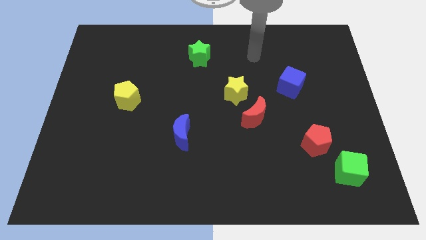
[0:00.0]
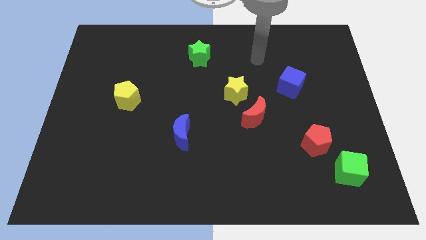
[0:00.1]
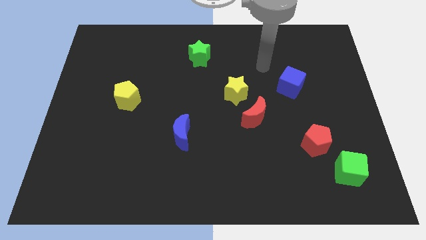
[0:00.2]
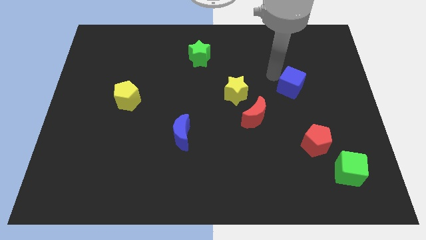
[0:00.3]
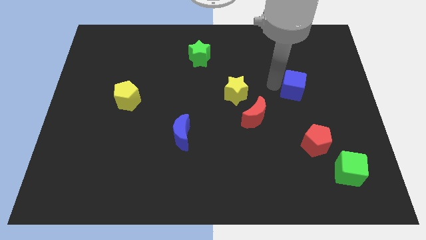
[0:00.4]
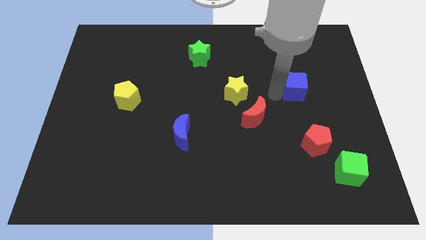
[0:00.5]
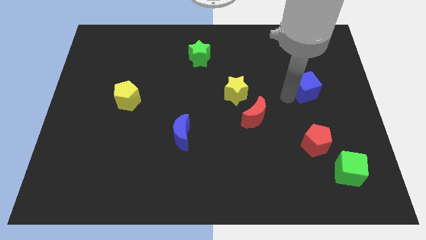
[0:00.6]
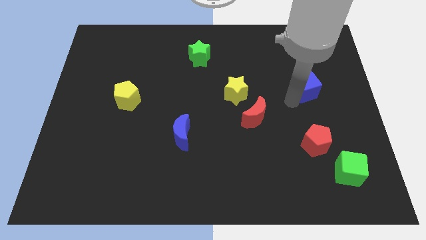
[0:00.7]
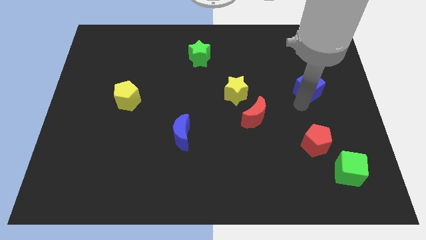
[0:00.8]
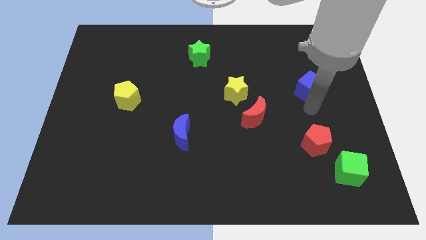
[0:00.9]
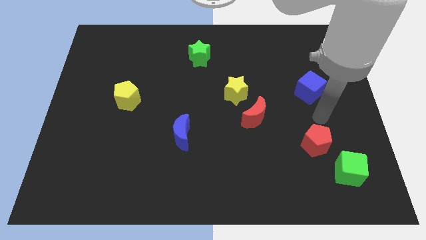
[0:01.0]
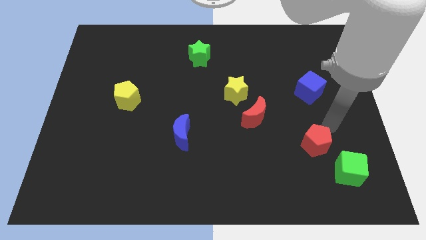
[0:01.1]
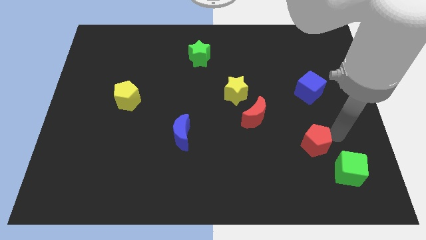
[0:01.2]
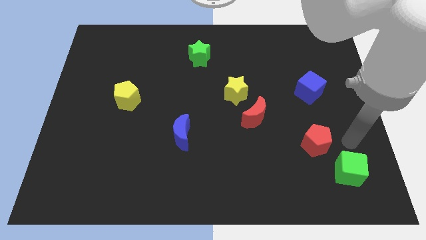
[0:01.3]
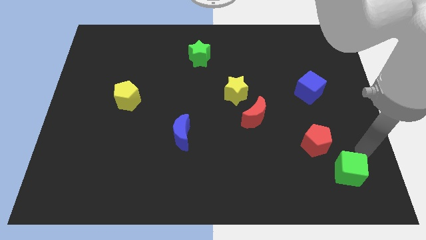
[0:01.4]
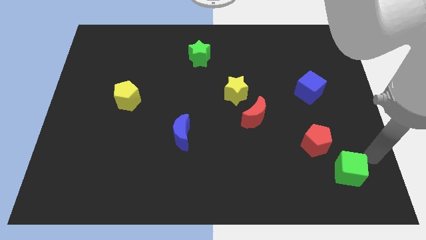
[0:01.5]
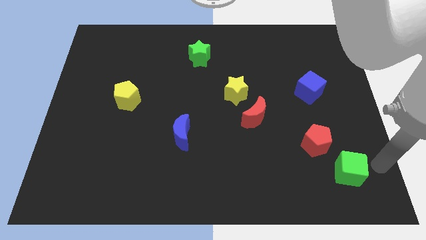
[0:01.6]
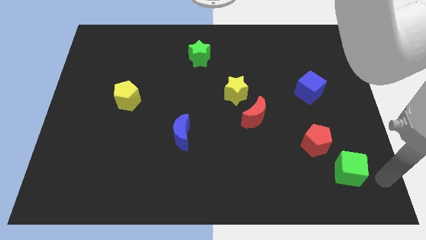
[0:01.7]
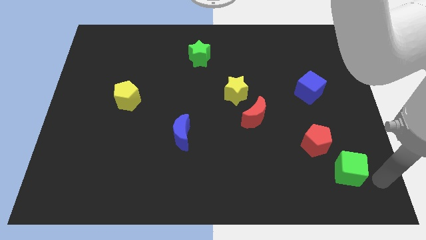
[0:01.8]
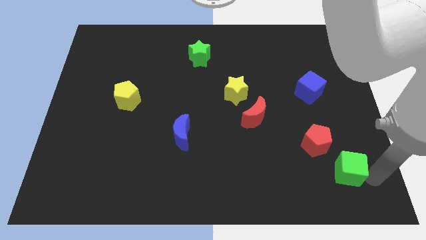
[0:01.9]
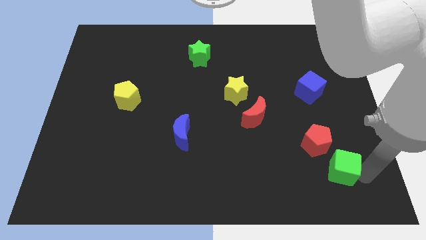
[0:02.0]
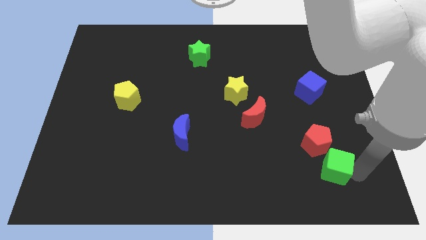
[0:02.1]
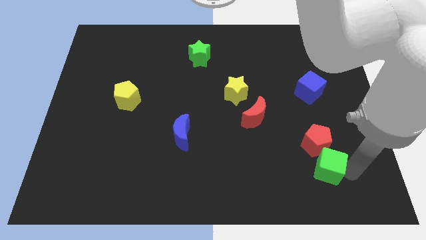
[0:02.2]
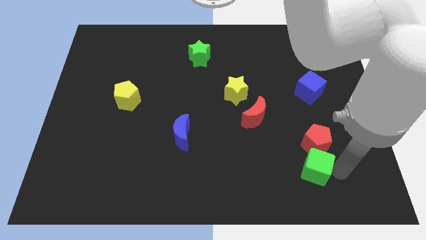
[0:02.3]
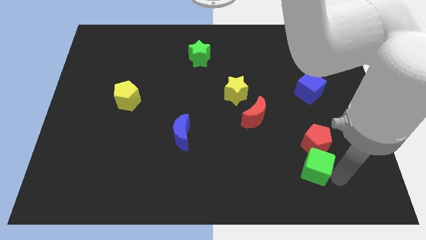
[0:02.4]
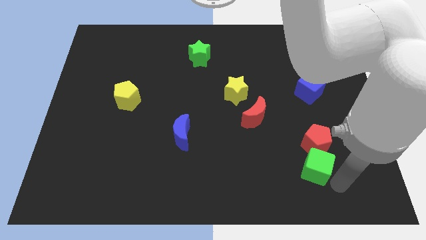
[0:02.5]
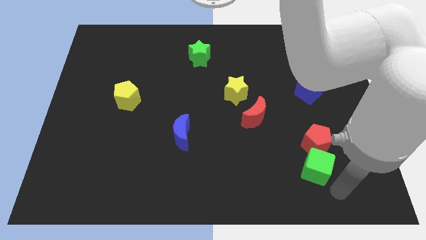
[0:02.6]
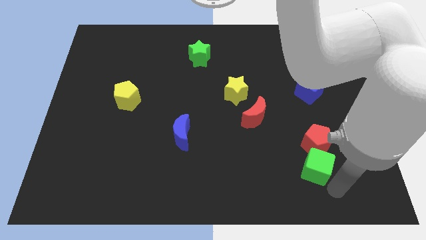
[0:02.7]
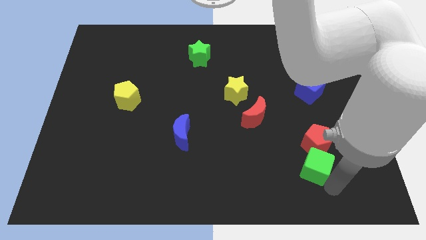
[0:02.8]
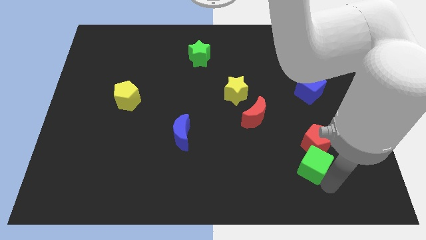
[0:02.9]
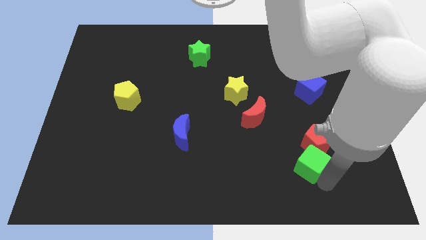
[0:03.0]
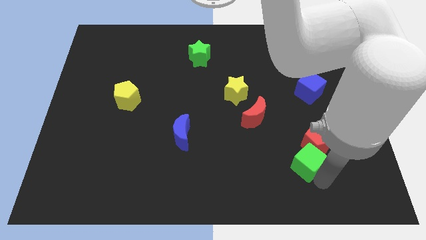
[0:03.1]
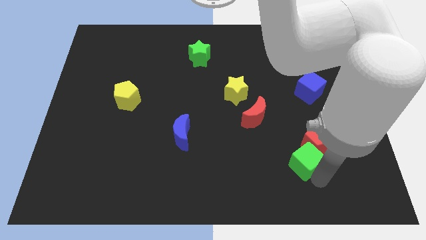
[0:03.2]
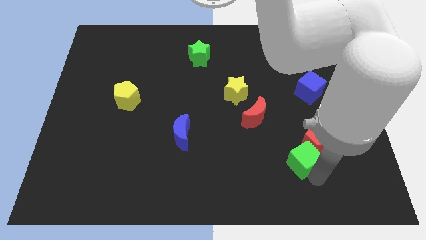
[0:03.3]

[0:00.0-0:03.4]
push the green cube a bit up and left diagonally

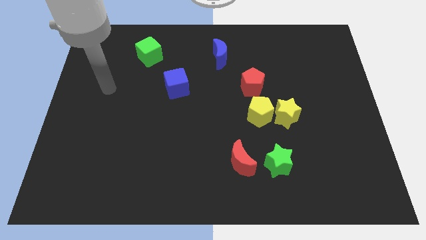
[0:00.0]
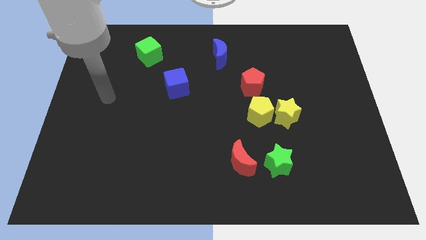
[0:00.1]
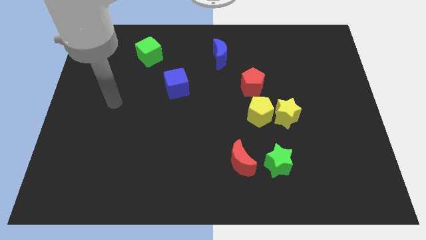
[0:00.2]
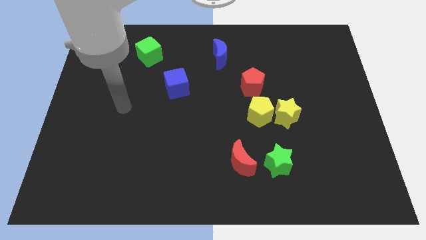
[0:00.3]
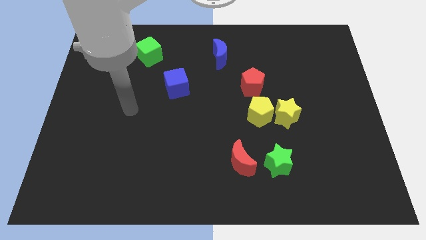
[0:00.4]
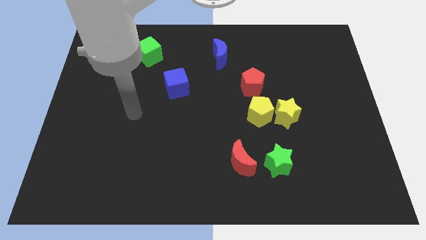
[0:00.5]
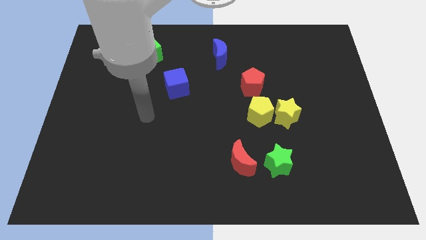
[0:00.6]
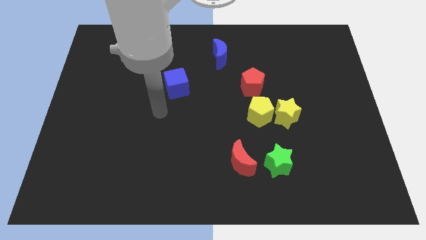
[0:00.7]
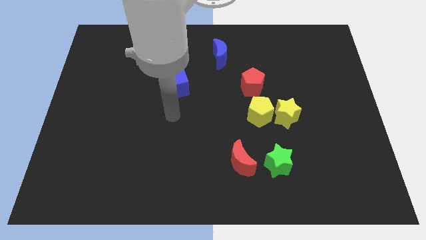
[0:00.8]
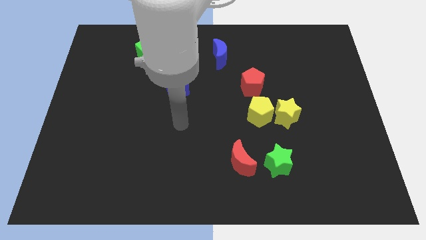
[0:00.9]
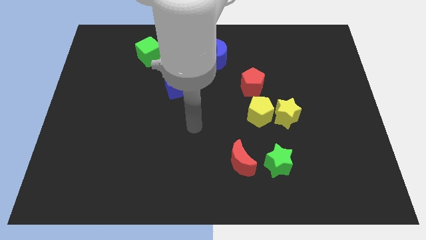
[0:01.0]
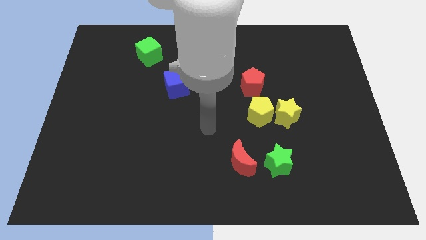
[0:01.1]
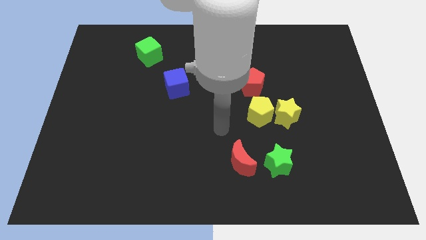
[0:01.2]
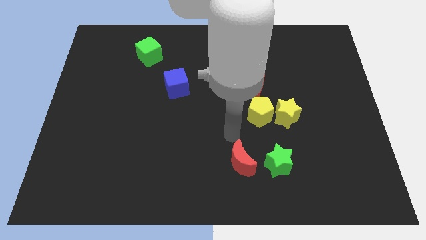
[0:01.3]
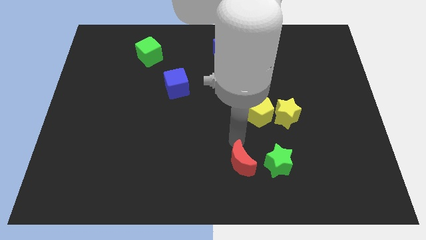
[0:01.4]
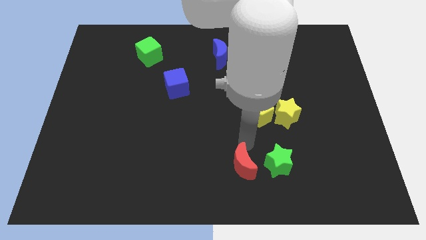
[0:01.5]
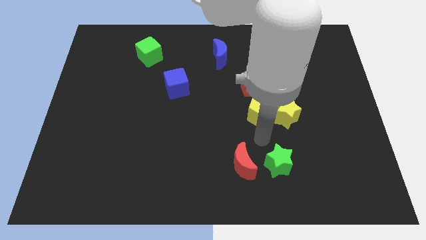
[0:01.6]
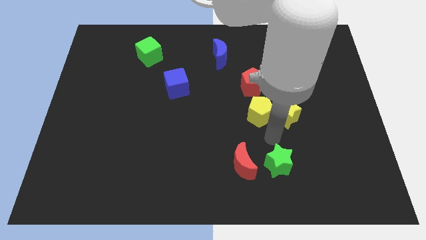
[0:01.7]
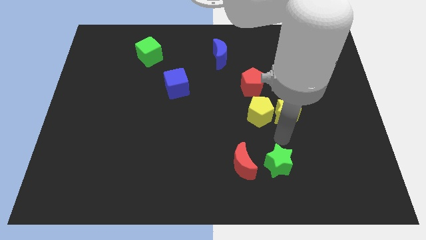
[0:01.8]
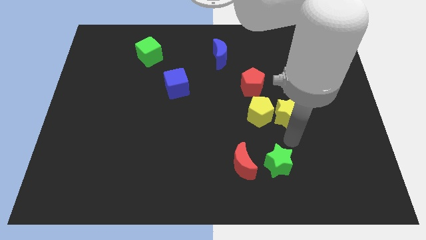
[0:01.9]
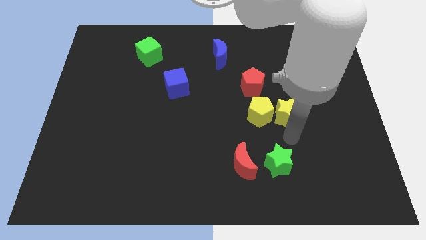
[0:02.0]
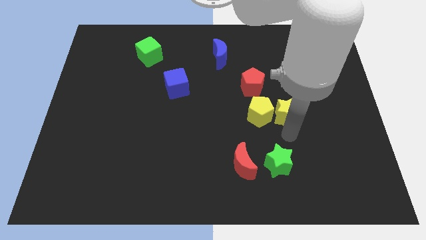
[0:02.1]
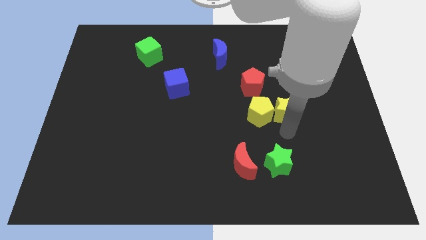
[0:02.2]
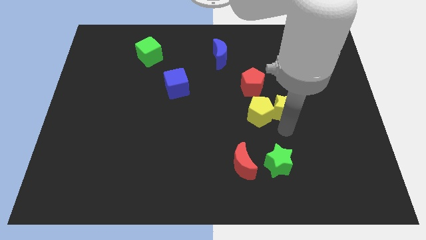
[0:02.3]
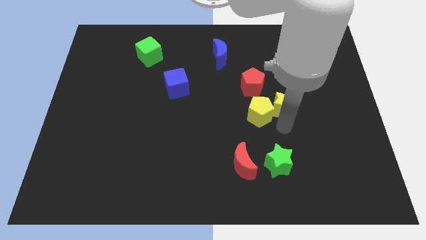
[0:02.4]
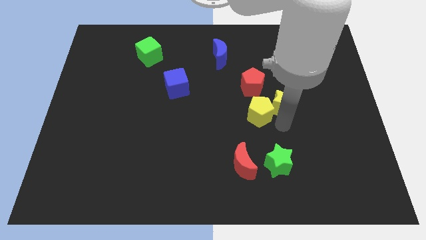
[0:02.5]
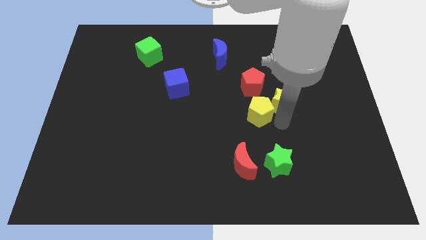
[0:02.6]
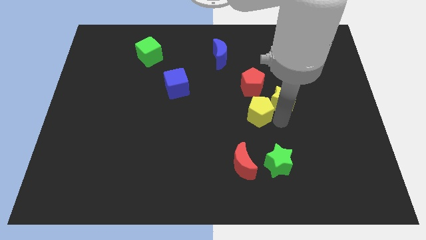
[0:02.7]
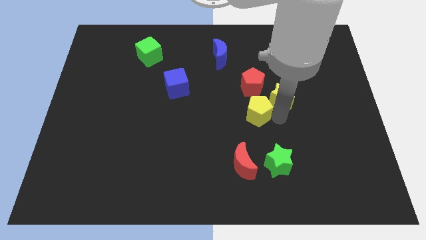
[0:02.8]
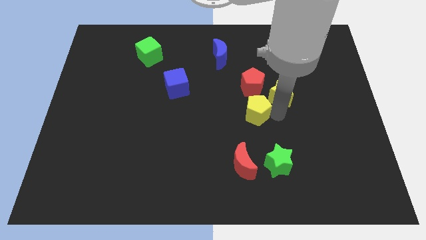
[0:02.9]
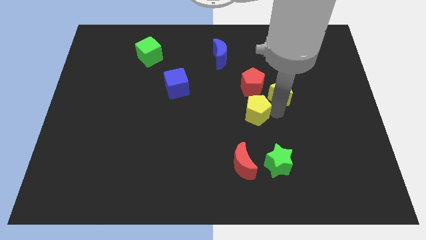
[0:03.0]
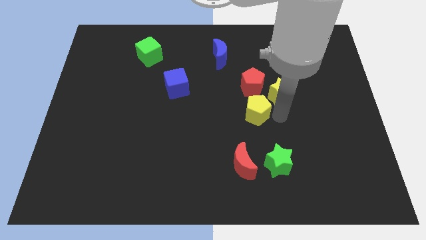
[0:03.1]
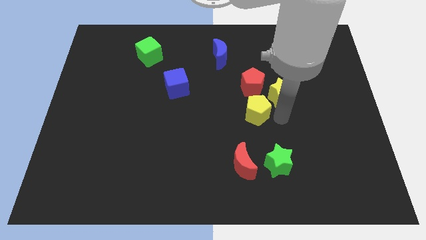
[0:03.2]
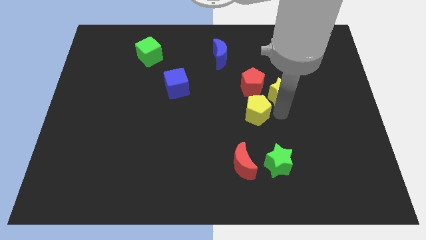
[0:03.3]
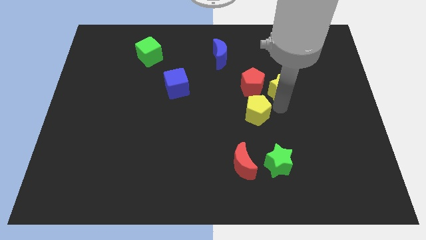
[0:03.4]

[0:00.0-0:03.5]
slide the yellow star upwards a little bit

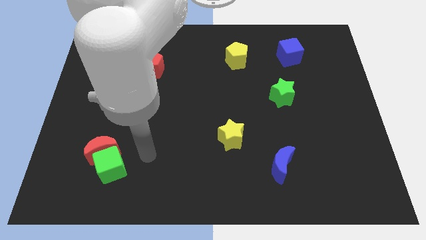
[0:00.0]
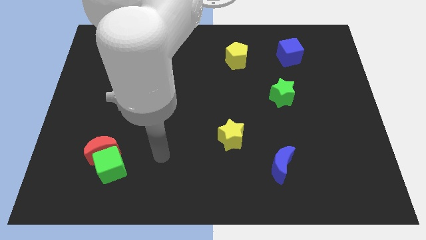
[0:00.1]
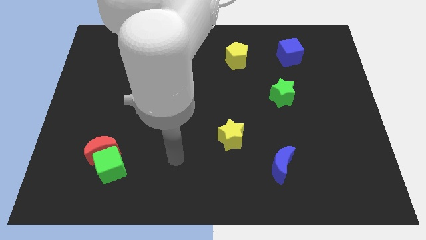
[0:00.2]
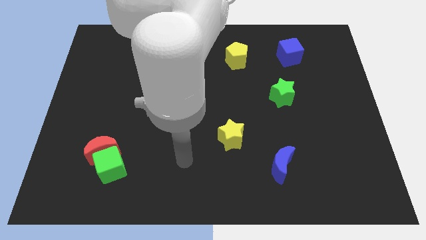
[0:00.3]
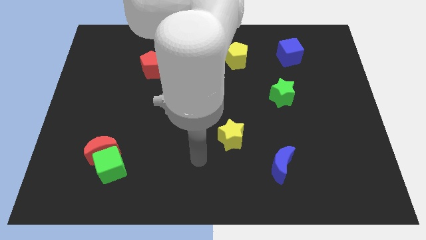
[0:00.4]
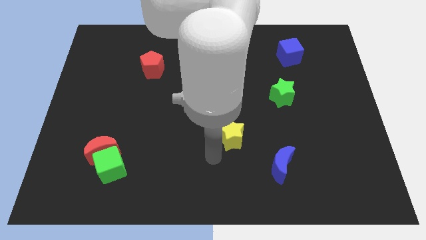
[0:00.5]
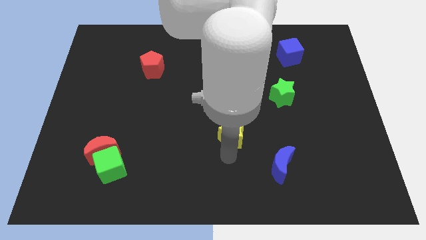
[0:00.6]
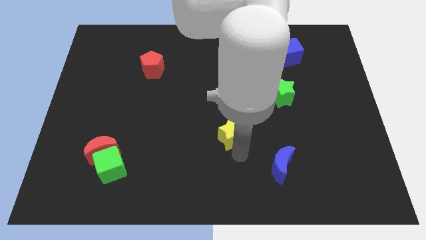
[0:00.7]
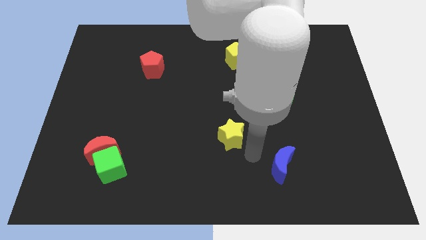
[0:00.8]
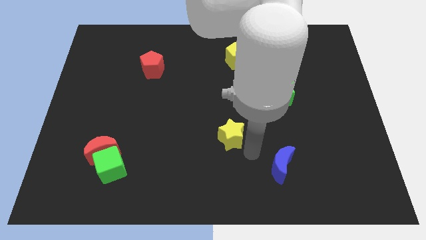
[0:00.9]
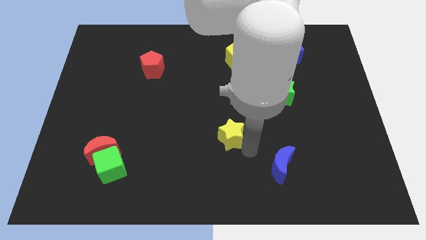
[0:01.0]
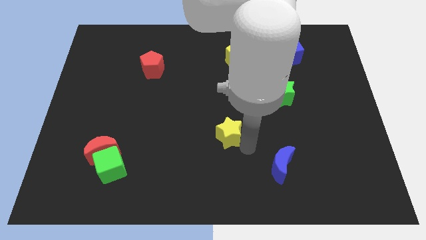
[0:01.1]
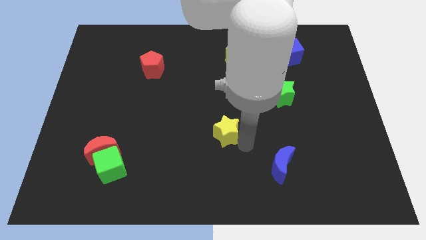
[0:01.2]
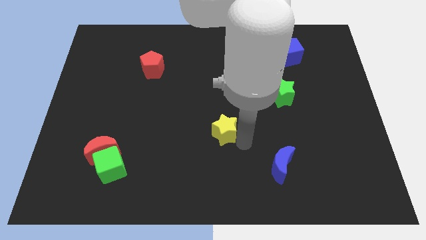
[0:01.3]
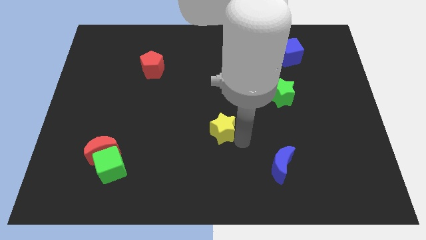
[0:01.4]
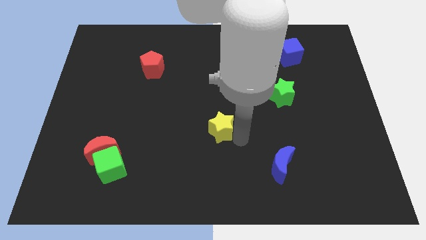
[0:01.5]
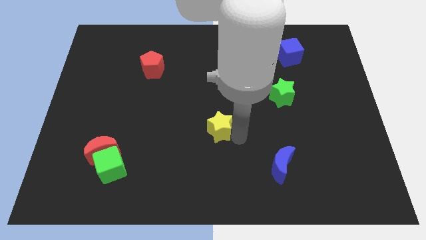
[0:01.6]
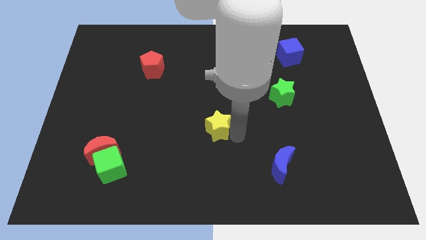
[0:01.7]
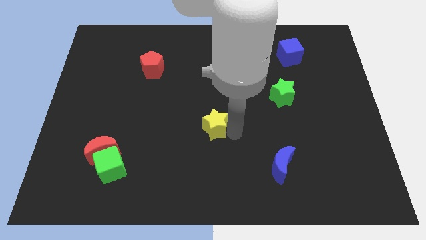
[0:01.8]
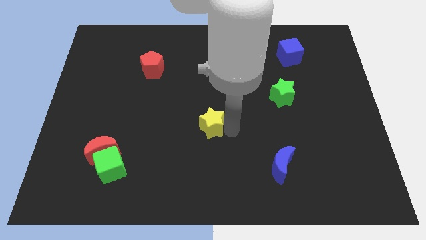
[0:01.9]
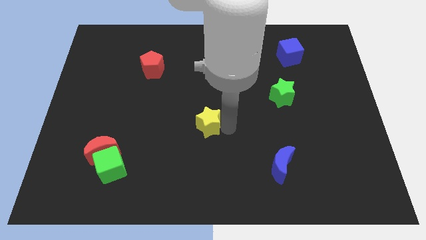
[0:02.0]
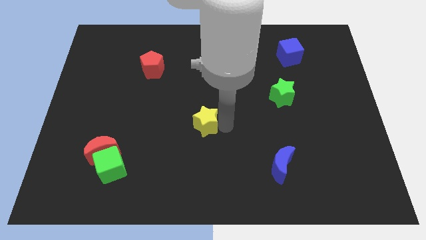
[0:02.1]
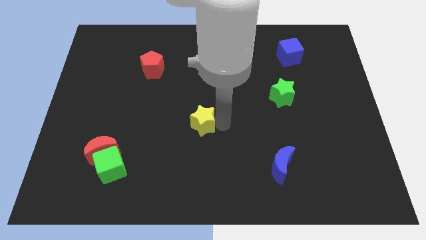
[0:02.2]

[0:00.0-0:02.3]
move the yellow star up and left a bit
